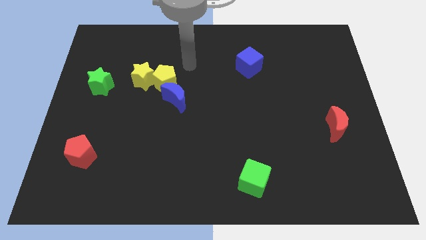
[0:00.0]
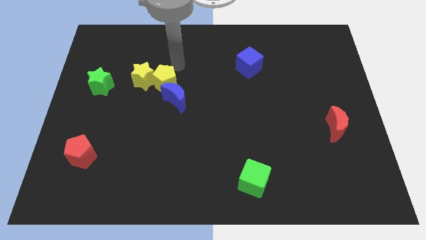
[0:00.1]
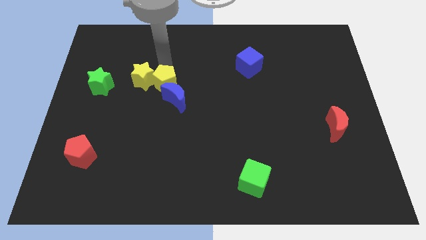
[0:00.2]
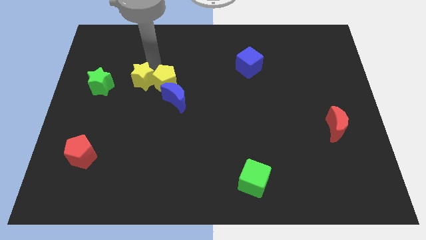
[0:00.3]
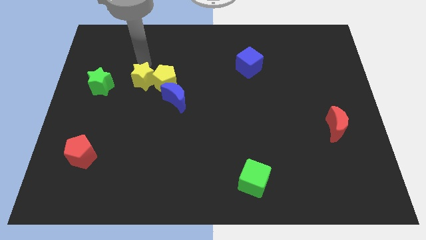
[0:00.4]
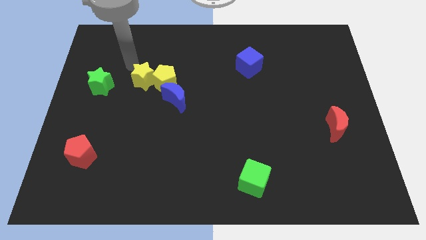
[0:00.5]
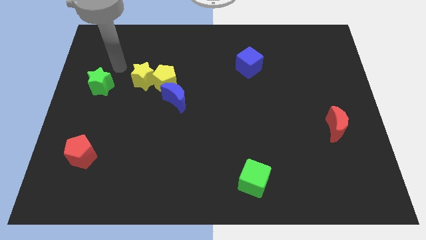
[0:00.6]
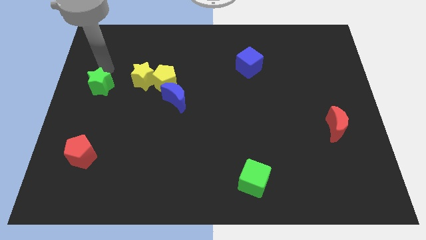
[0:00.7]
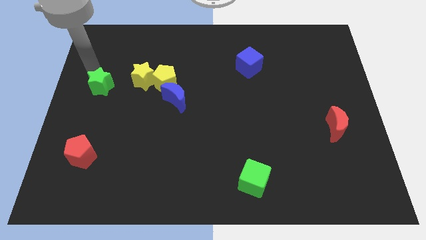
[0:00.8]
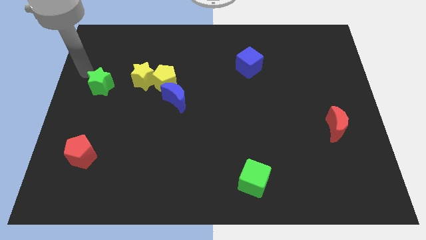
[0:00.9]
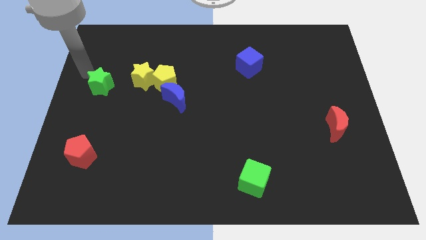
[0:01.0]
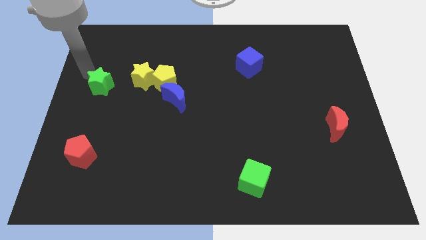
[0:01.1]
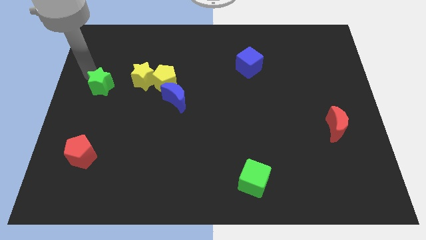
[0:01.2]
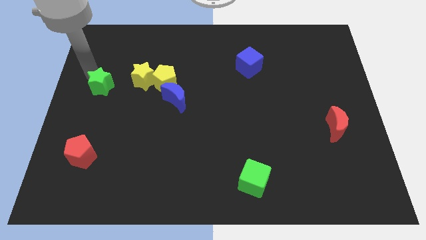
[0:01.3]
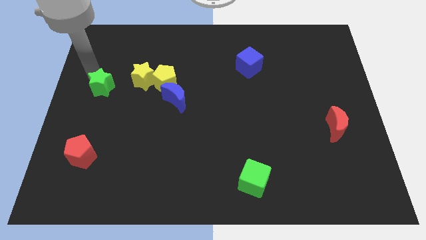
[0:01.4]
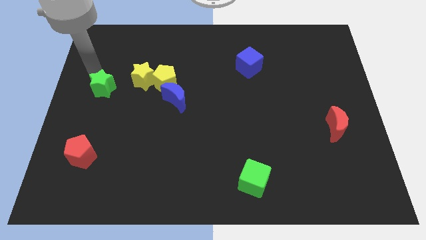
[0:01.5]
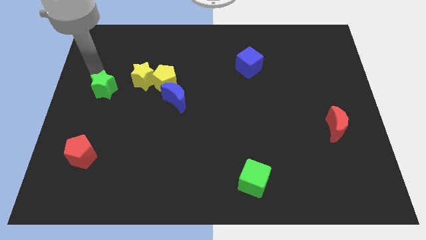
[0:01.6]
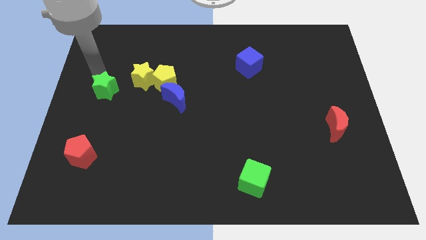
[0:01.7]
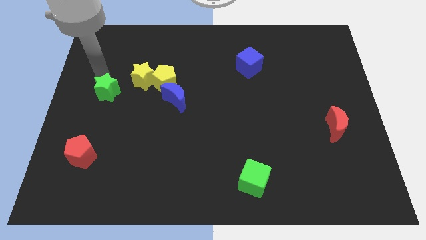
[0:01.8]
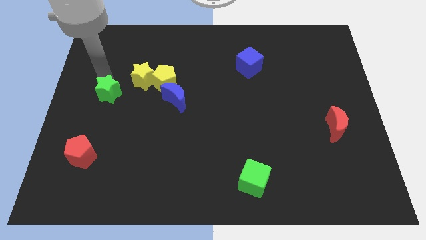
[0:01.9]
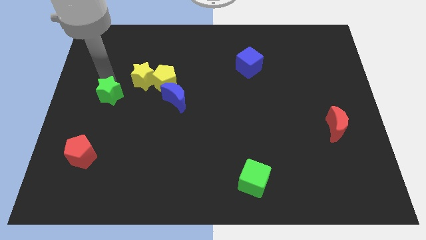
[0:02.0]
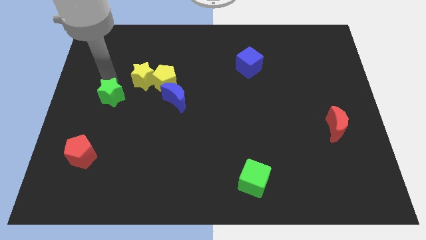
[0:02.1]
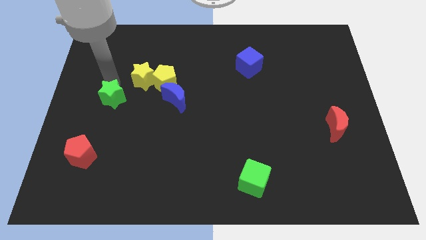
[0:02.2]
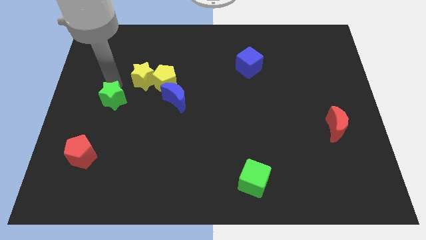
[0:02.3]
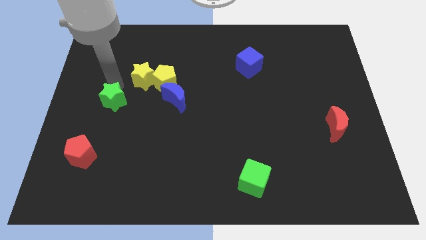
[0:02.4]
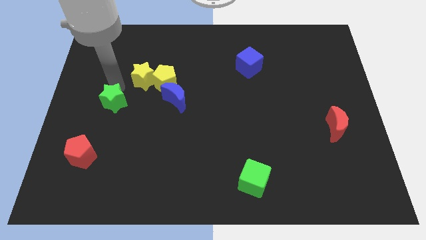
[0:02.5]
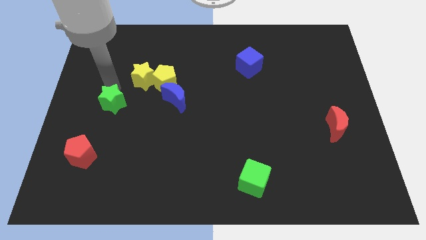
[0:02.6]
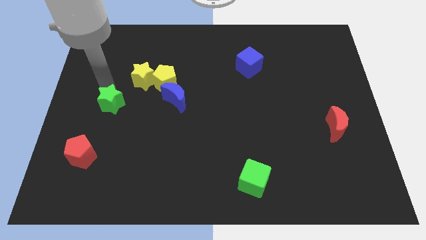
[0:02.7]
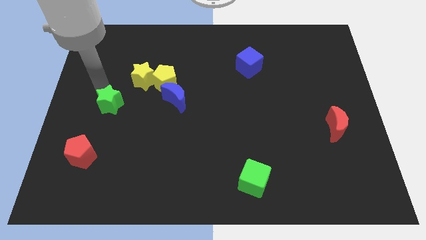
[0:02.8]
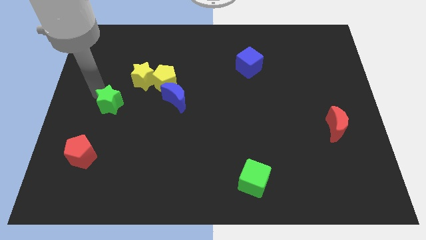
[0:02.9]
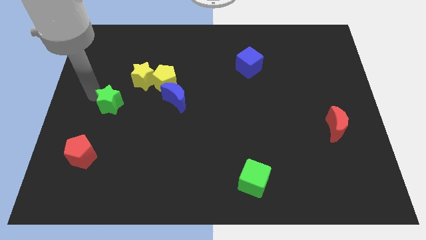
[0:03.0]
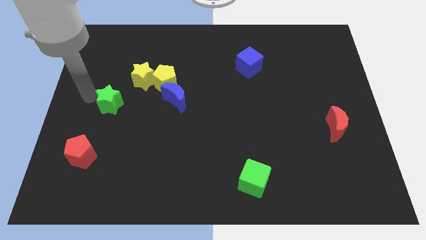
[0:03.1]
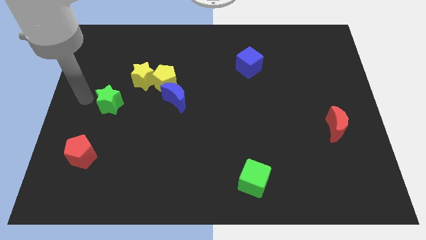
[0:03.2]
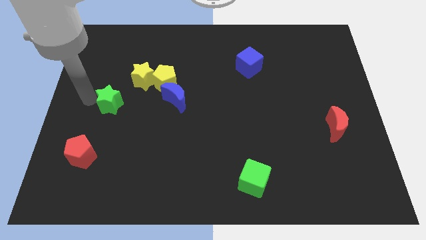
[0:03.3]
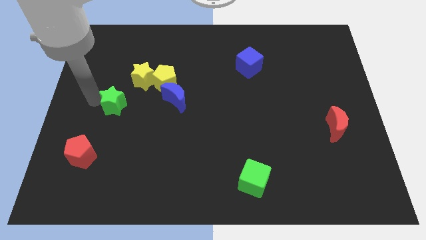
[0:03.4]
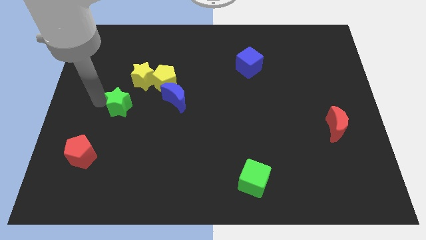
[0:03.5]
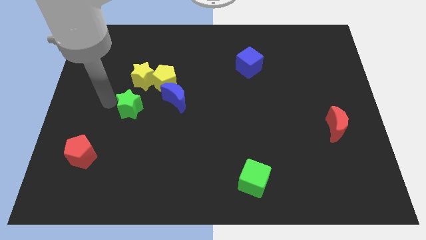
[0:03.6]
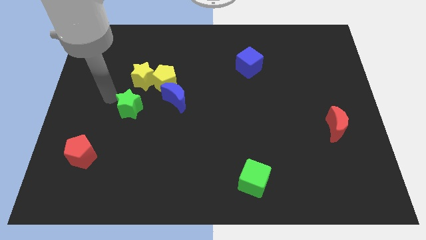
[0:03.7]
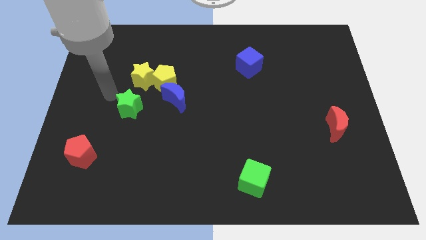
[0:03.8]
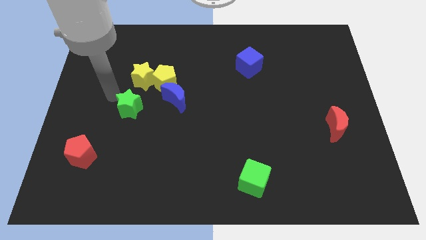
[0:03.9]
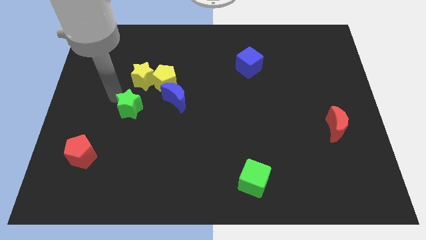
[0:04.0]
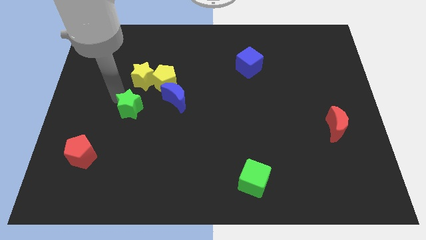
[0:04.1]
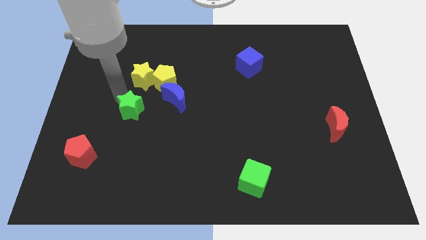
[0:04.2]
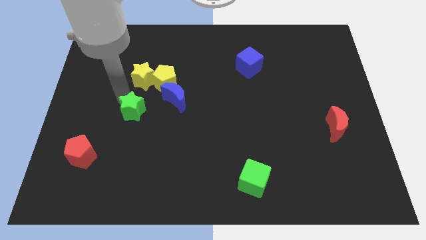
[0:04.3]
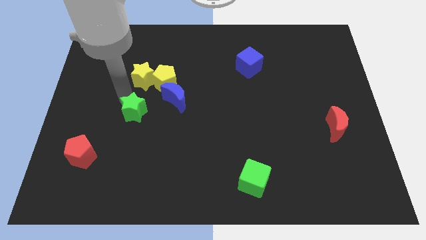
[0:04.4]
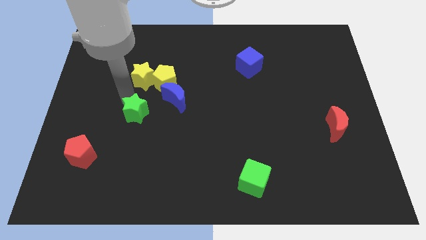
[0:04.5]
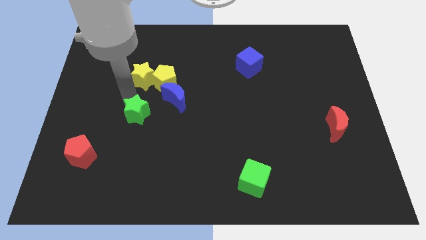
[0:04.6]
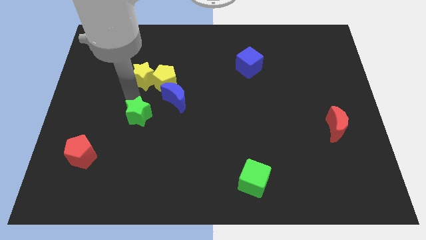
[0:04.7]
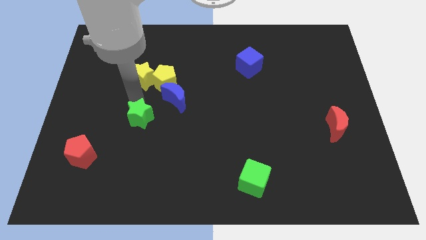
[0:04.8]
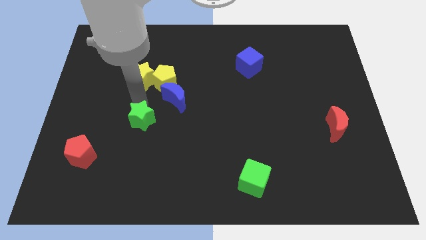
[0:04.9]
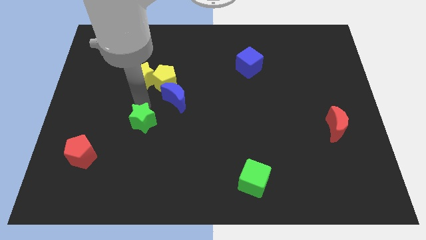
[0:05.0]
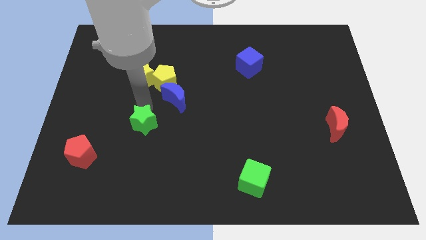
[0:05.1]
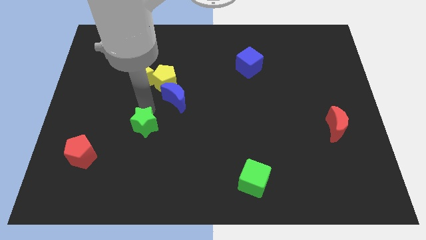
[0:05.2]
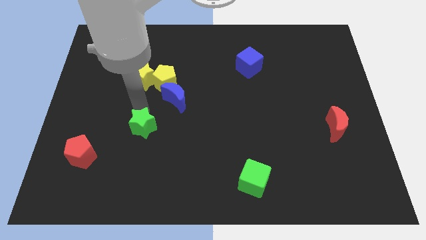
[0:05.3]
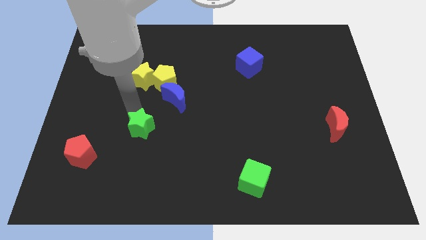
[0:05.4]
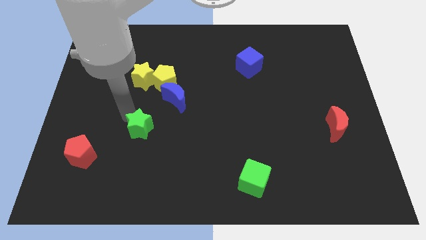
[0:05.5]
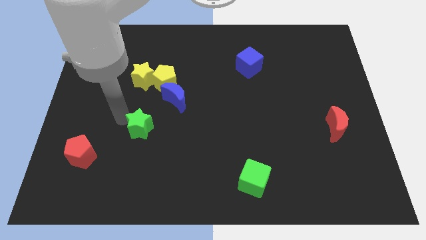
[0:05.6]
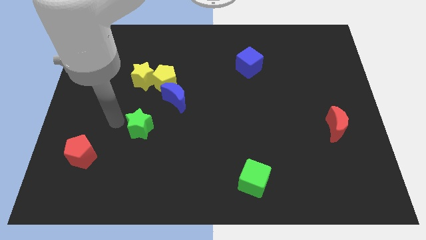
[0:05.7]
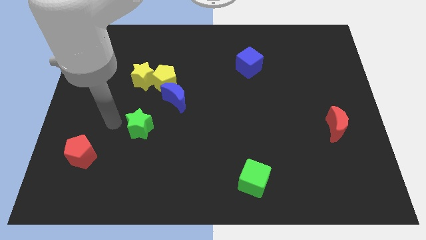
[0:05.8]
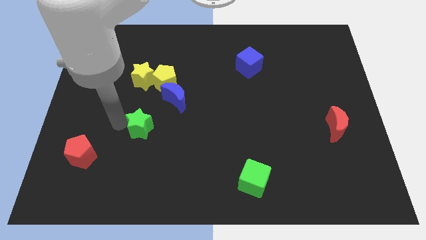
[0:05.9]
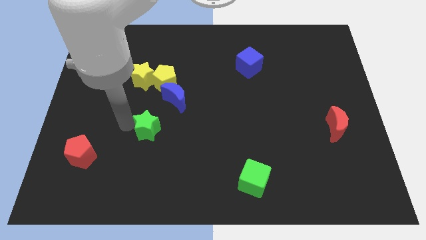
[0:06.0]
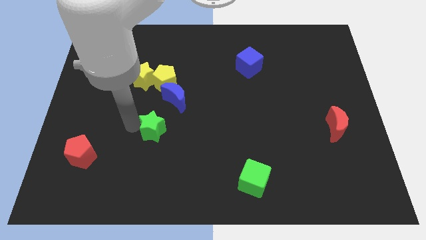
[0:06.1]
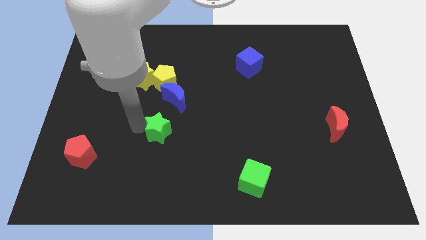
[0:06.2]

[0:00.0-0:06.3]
push the green star diagonally downwards and right

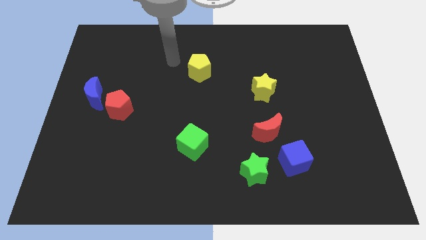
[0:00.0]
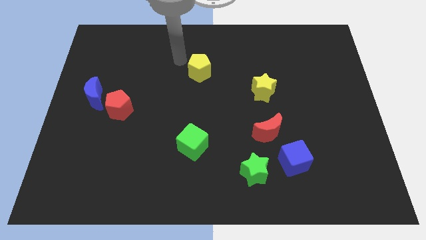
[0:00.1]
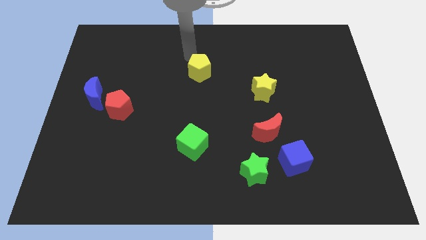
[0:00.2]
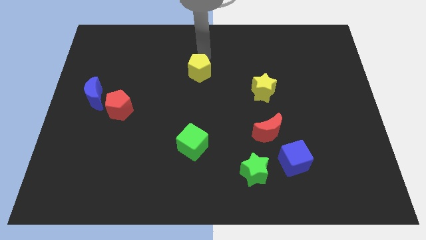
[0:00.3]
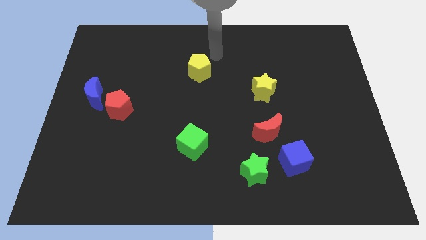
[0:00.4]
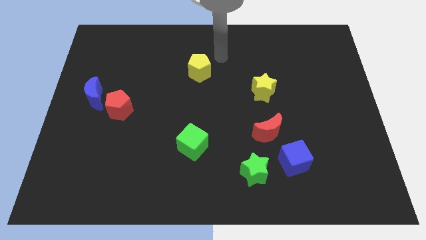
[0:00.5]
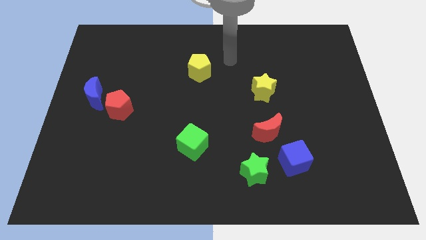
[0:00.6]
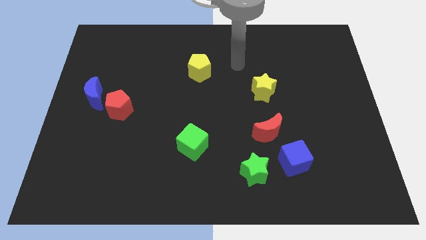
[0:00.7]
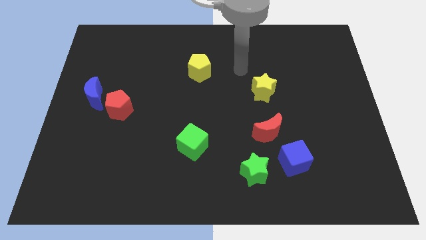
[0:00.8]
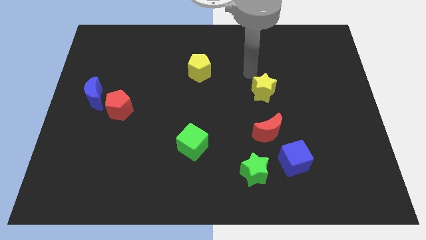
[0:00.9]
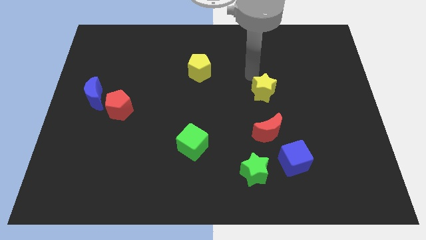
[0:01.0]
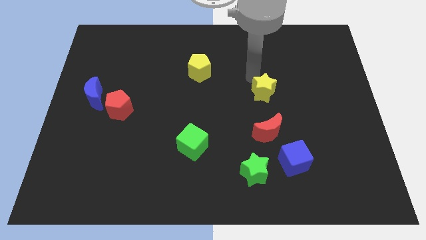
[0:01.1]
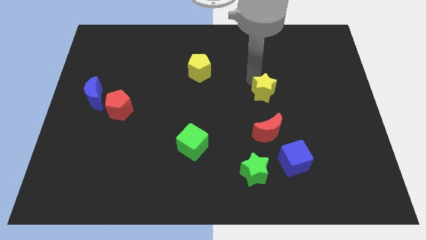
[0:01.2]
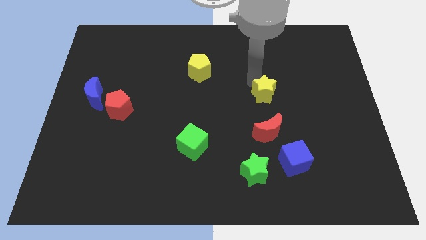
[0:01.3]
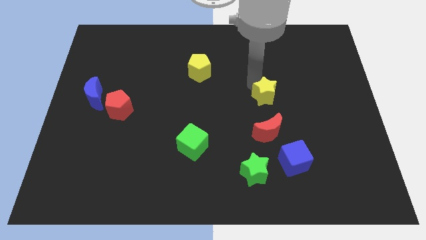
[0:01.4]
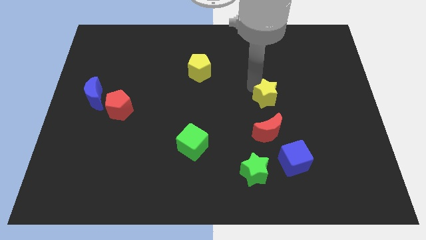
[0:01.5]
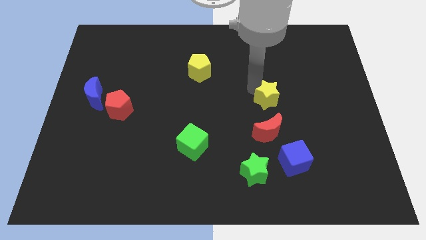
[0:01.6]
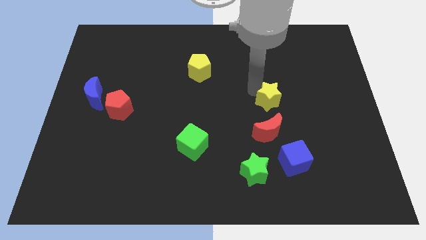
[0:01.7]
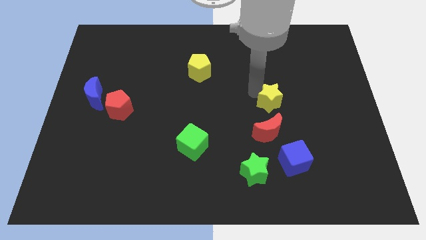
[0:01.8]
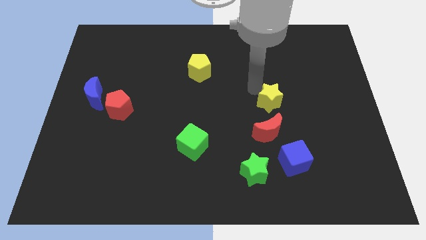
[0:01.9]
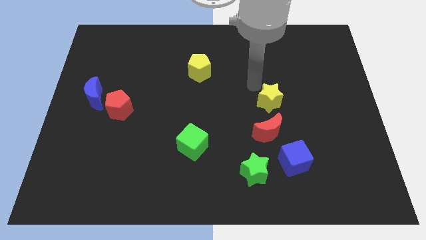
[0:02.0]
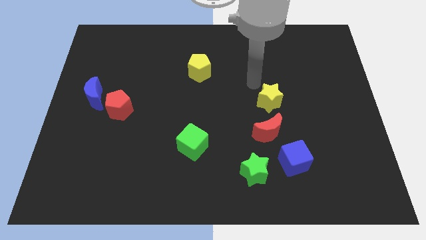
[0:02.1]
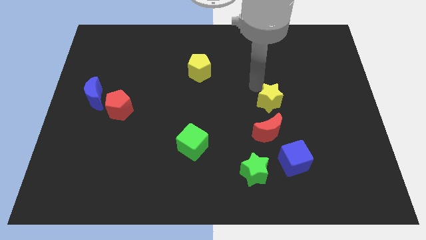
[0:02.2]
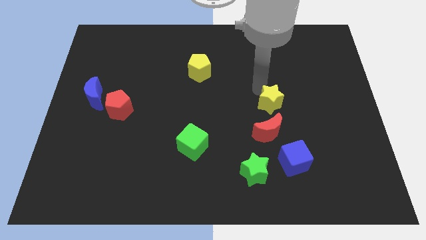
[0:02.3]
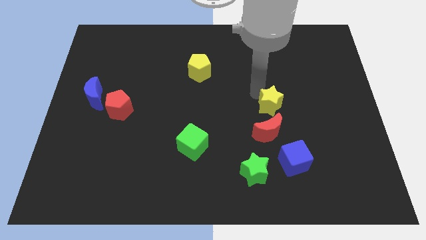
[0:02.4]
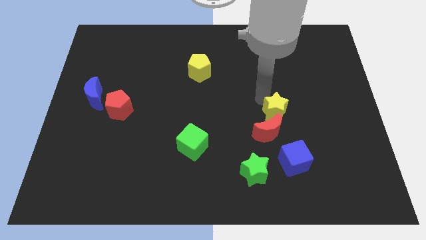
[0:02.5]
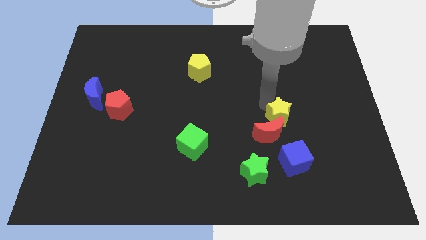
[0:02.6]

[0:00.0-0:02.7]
slide the yellow star a little bit diagonally downwards and to the right
